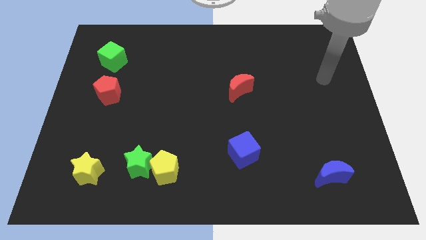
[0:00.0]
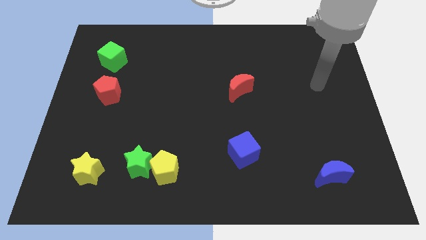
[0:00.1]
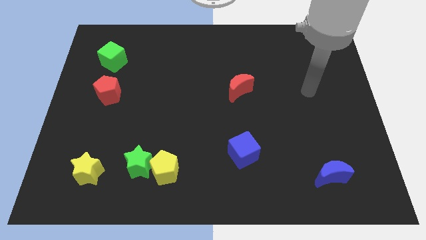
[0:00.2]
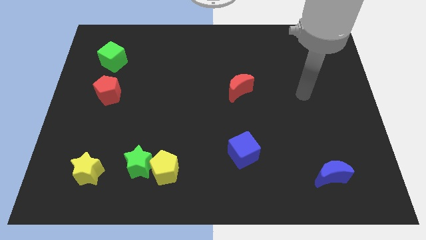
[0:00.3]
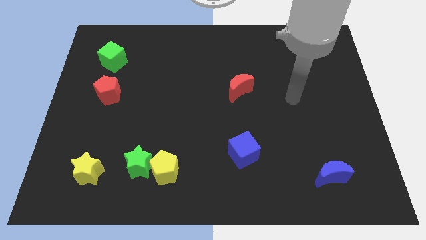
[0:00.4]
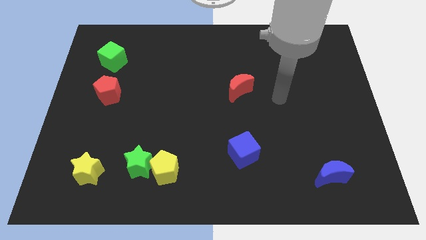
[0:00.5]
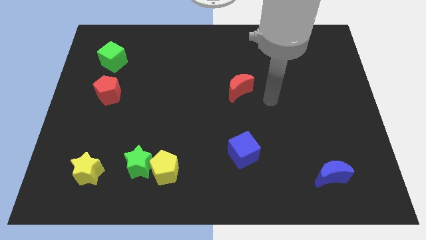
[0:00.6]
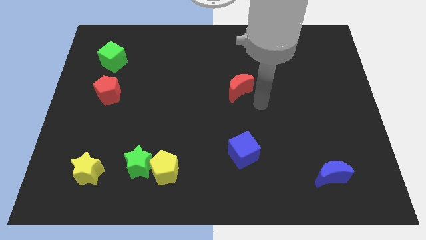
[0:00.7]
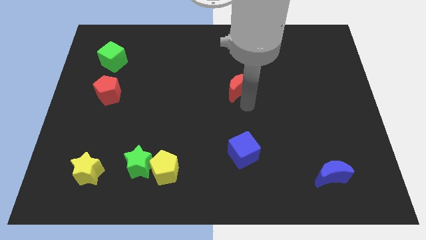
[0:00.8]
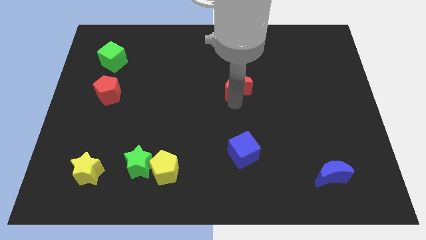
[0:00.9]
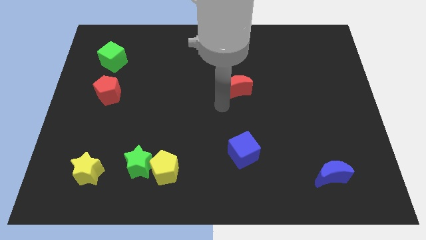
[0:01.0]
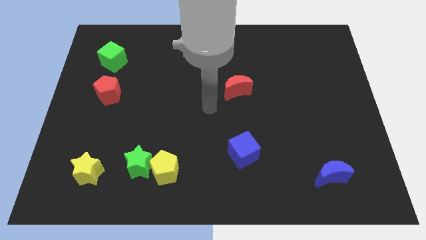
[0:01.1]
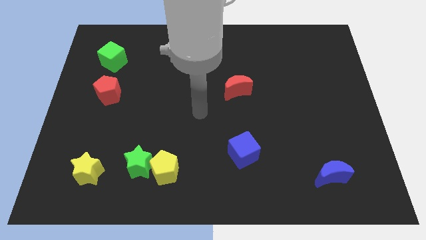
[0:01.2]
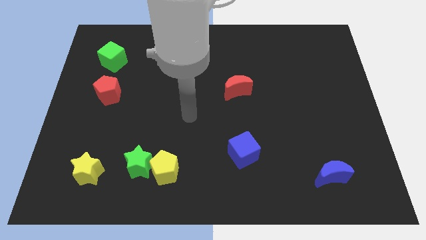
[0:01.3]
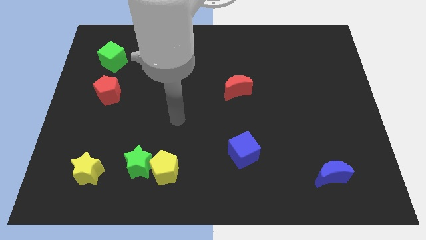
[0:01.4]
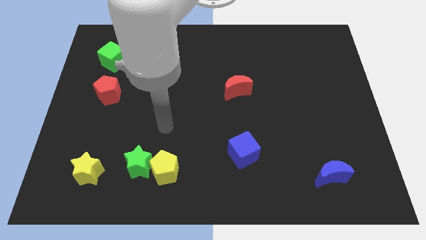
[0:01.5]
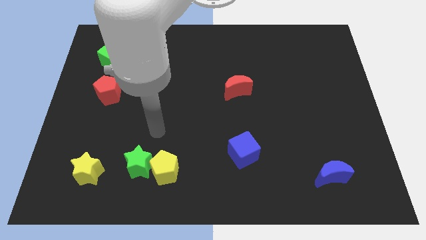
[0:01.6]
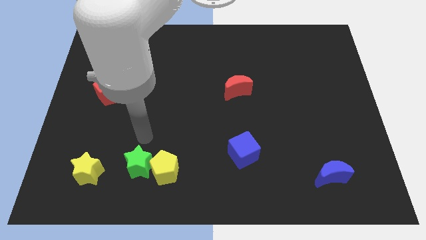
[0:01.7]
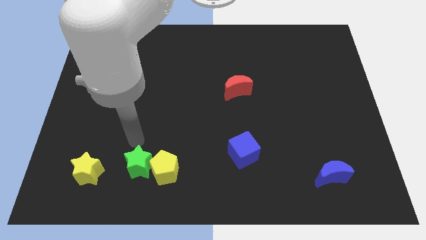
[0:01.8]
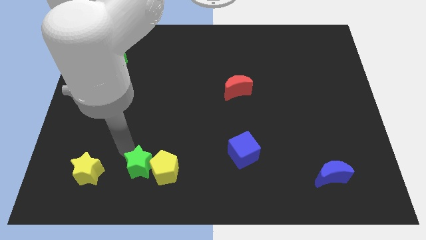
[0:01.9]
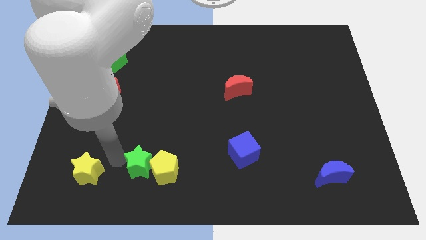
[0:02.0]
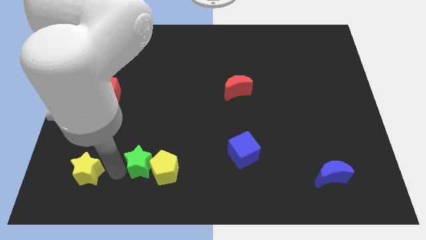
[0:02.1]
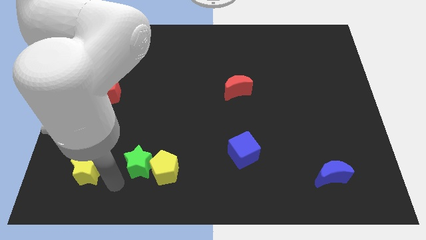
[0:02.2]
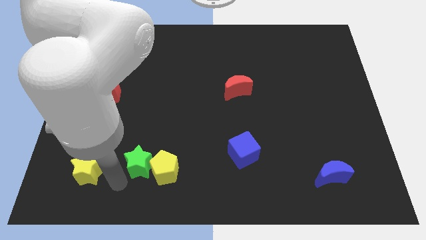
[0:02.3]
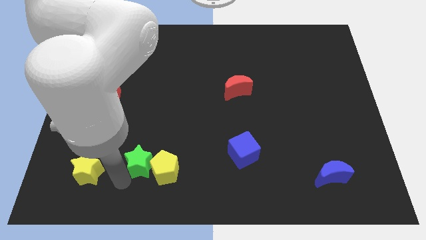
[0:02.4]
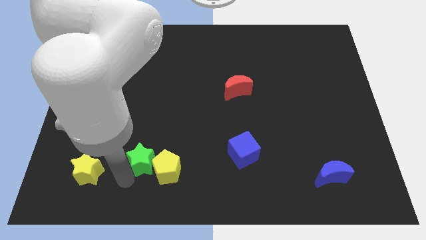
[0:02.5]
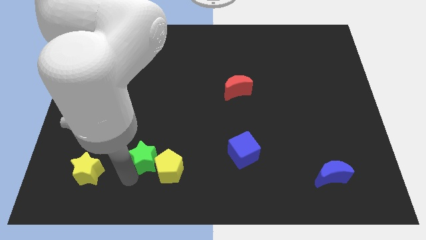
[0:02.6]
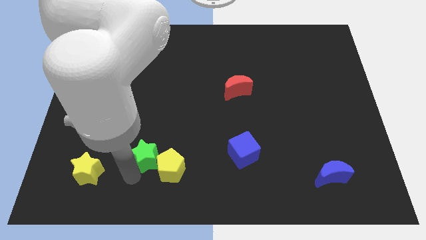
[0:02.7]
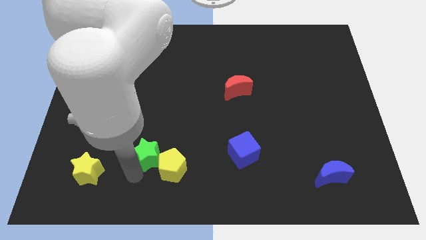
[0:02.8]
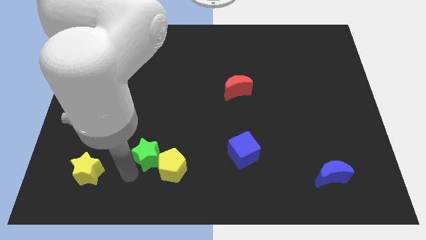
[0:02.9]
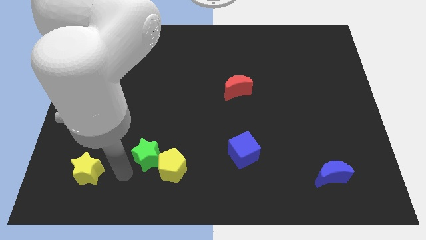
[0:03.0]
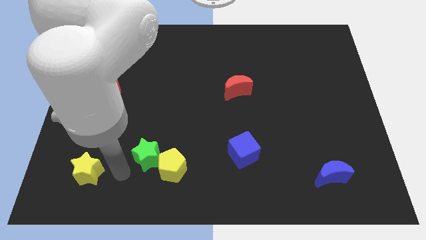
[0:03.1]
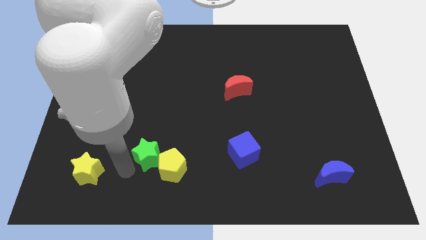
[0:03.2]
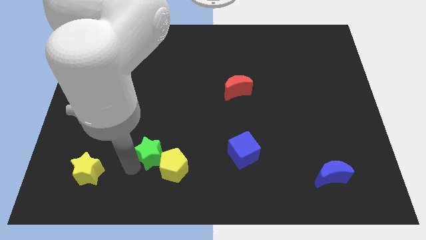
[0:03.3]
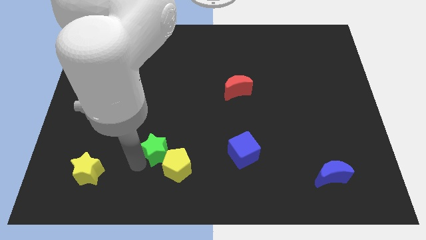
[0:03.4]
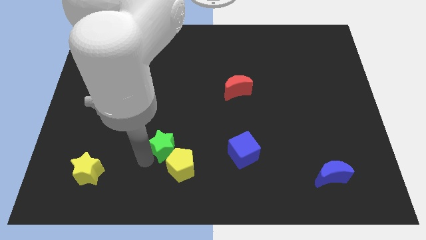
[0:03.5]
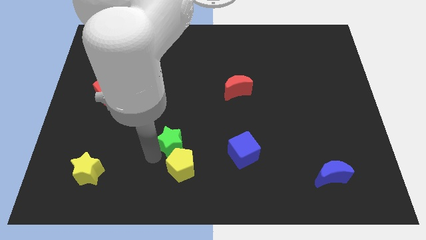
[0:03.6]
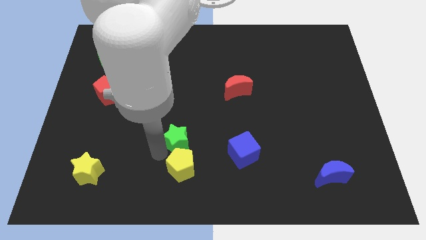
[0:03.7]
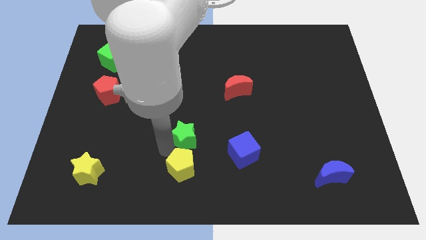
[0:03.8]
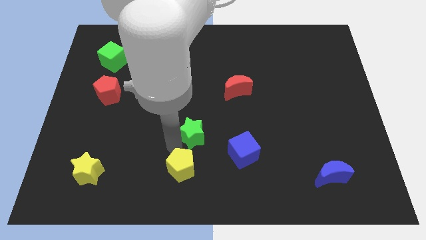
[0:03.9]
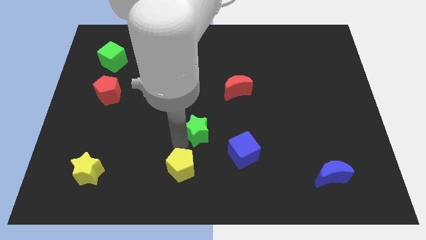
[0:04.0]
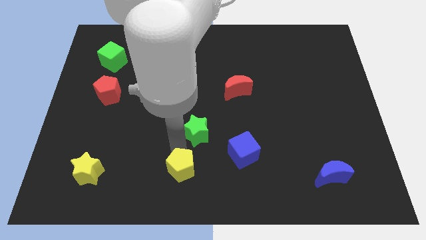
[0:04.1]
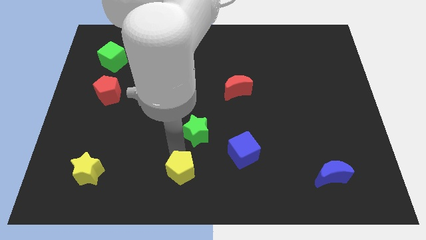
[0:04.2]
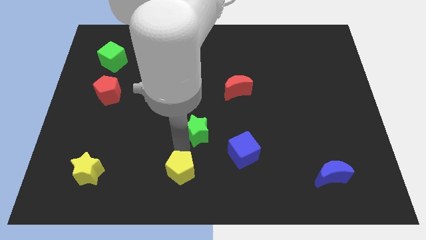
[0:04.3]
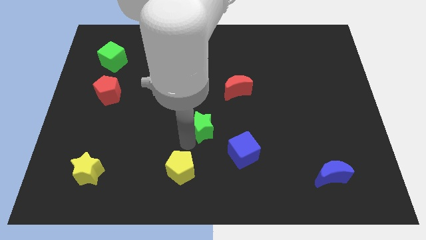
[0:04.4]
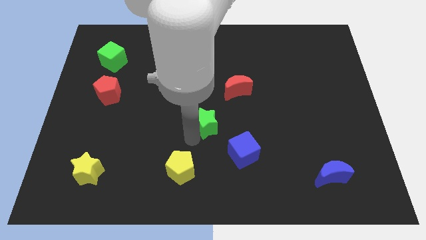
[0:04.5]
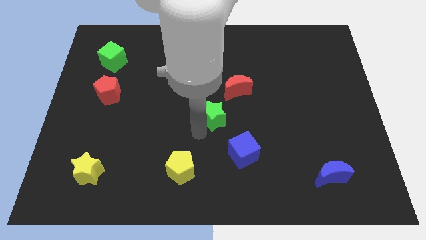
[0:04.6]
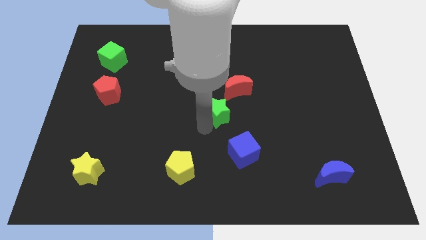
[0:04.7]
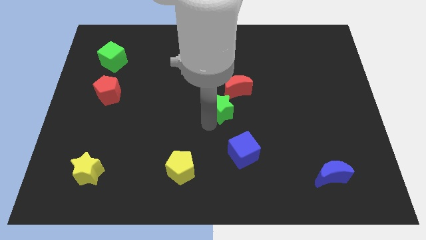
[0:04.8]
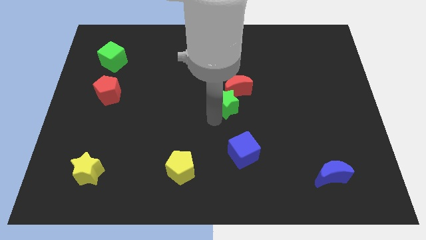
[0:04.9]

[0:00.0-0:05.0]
move the green star towards the red moon

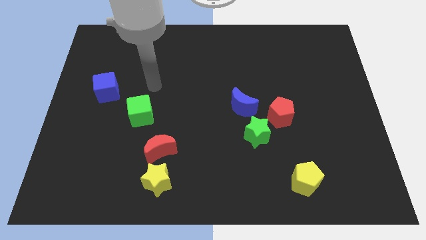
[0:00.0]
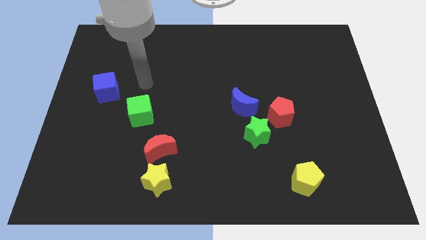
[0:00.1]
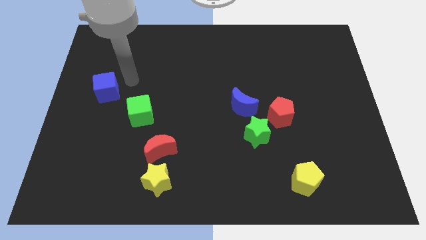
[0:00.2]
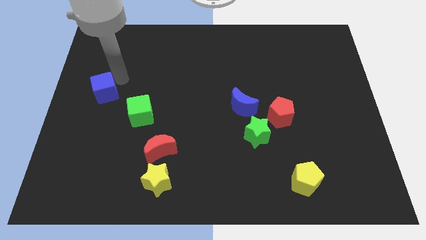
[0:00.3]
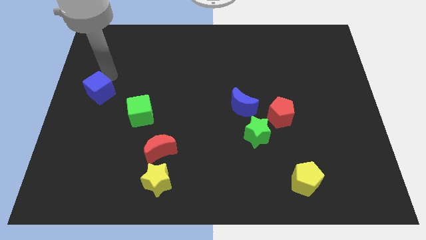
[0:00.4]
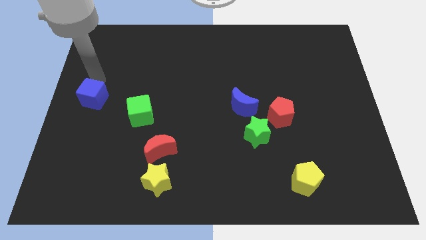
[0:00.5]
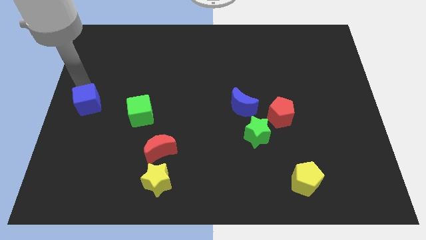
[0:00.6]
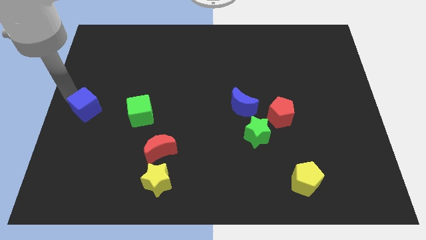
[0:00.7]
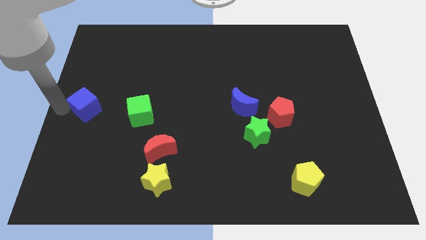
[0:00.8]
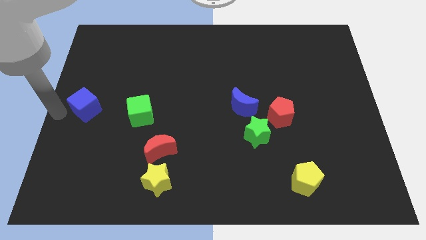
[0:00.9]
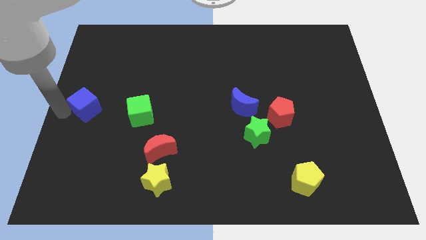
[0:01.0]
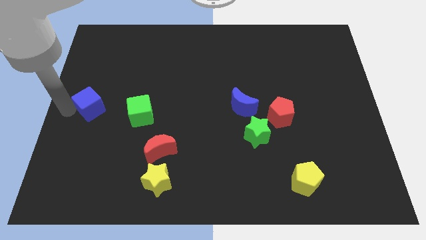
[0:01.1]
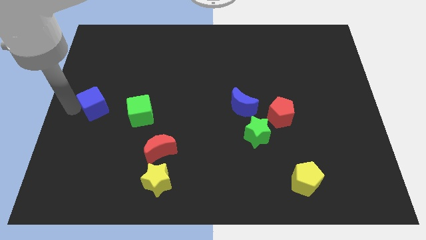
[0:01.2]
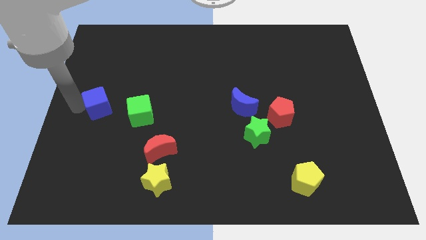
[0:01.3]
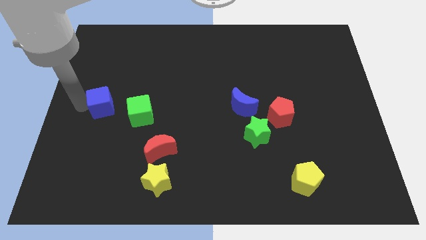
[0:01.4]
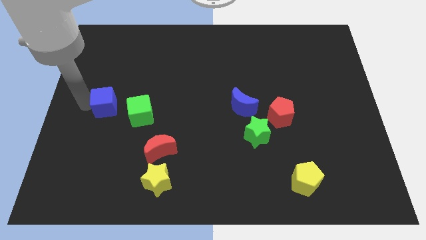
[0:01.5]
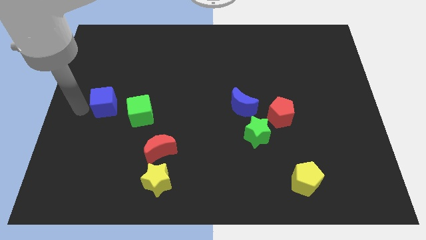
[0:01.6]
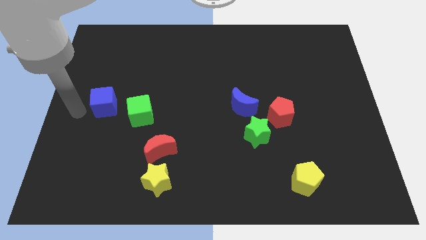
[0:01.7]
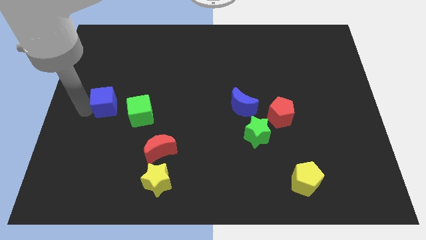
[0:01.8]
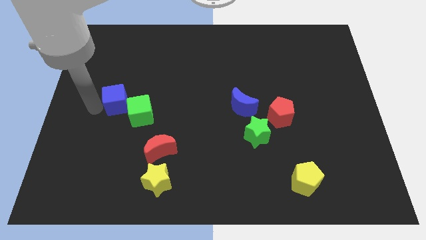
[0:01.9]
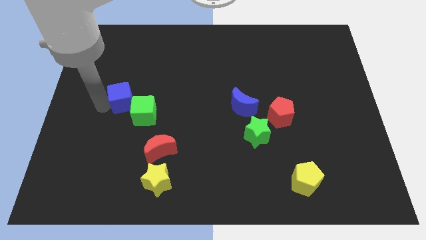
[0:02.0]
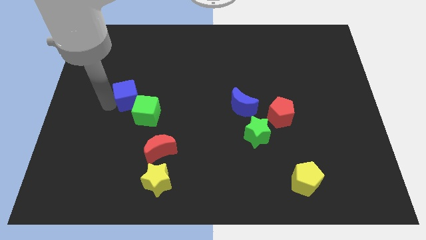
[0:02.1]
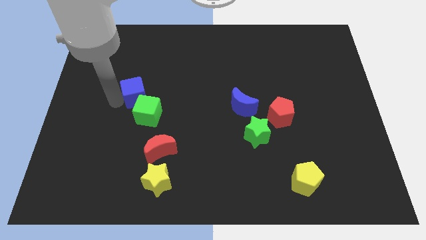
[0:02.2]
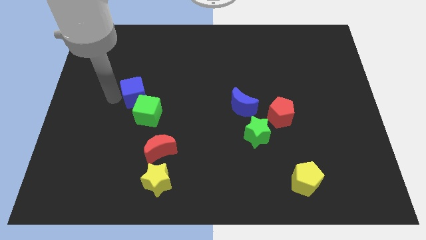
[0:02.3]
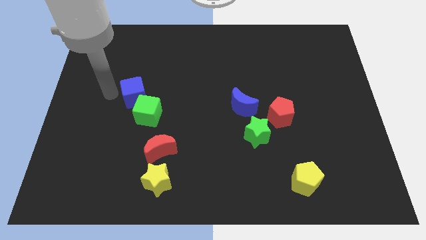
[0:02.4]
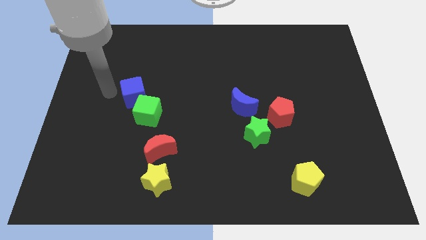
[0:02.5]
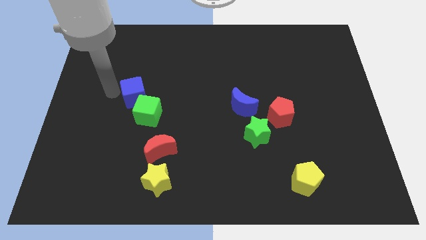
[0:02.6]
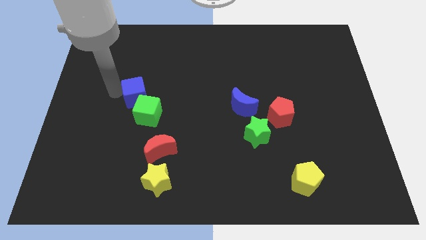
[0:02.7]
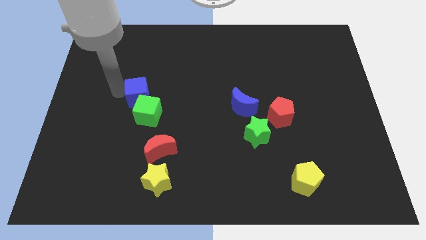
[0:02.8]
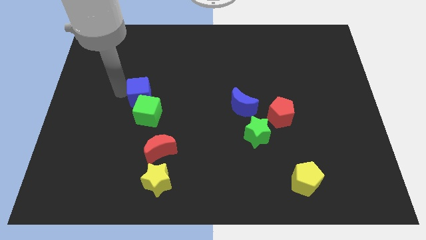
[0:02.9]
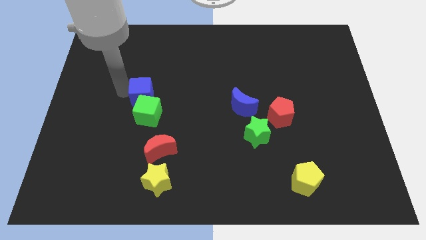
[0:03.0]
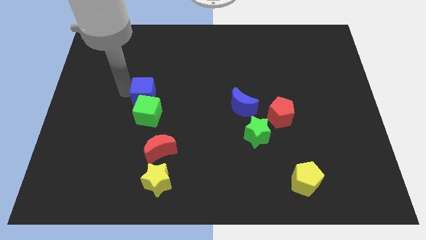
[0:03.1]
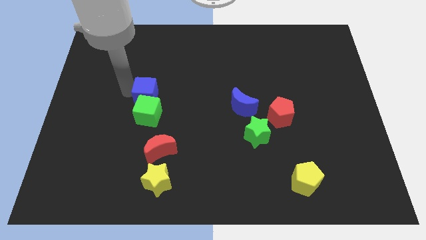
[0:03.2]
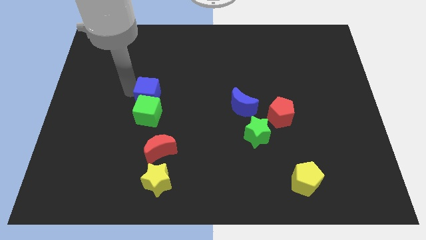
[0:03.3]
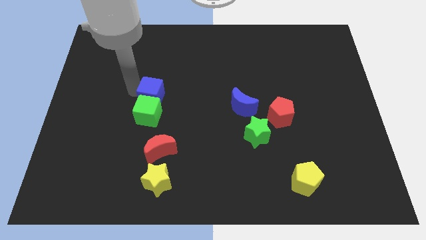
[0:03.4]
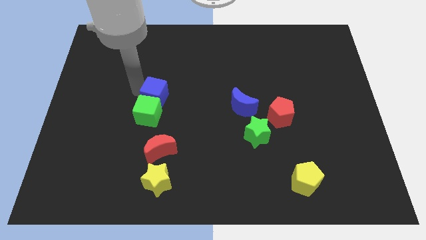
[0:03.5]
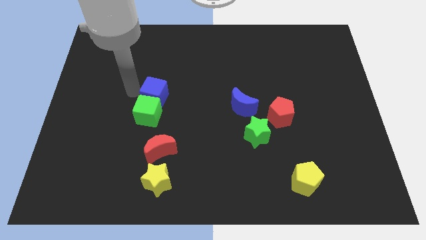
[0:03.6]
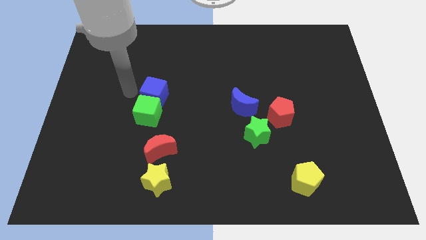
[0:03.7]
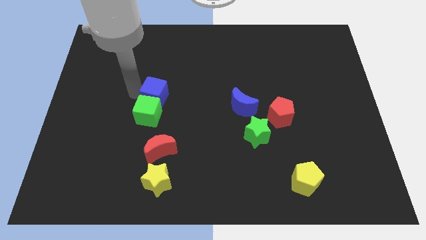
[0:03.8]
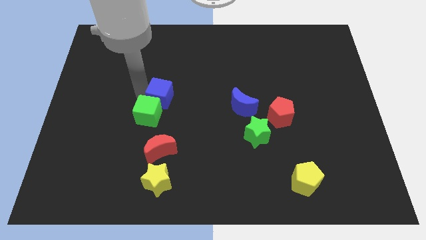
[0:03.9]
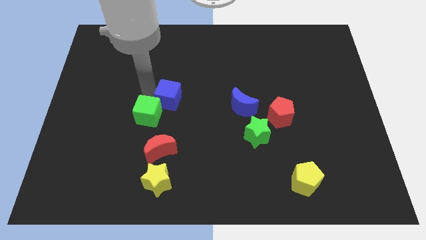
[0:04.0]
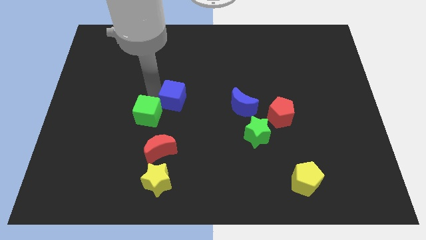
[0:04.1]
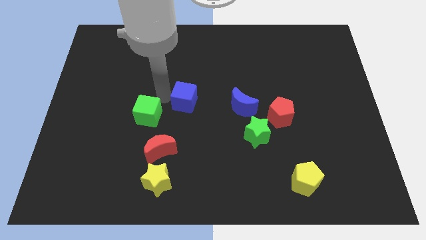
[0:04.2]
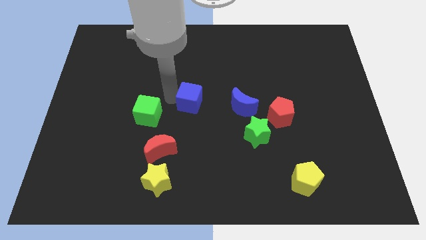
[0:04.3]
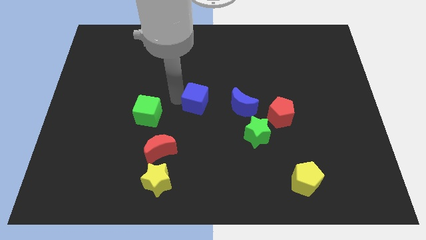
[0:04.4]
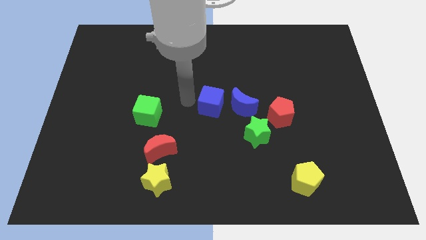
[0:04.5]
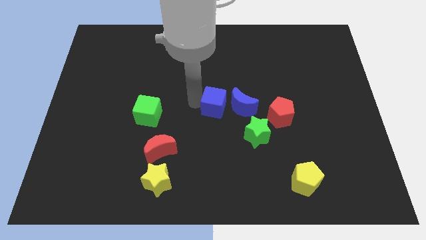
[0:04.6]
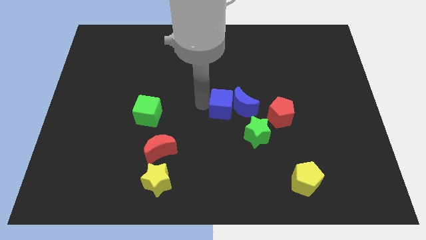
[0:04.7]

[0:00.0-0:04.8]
move the blue cube next to the blue moon
